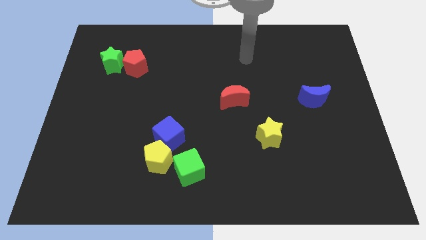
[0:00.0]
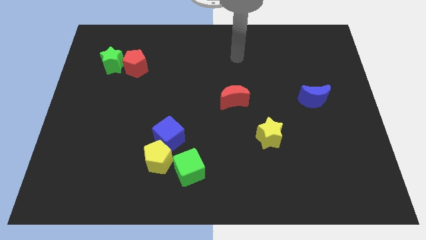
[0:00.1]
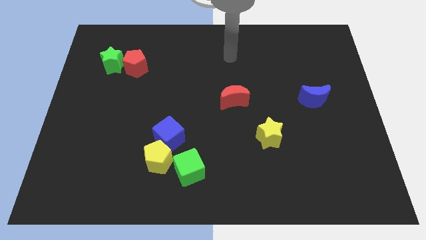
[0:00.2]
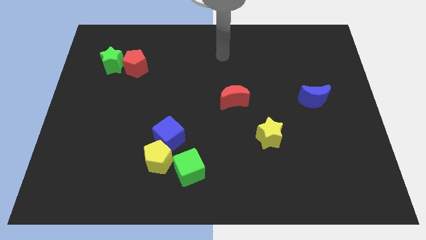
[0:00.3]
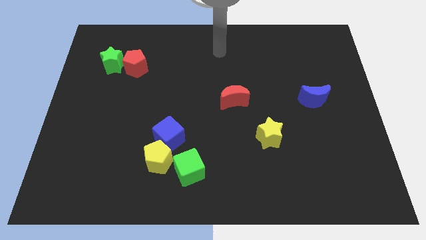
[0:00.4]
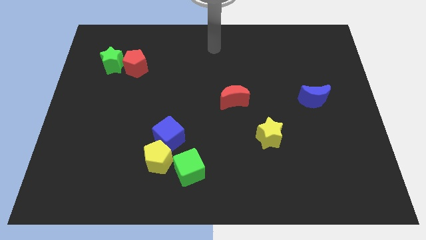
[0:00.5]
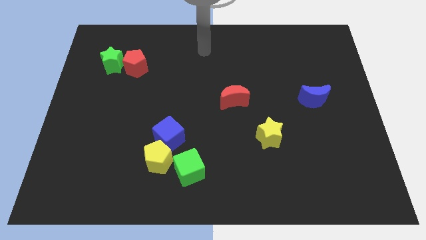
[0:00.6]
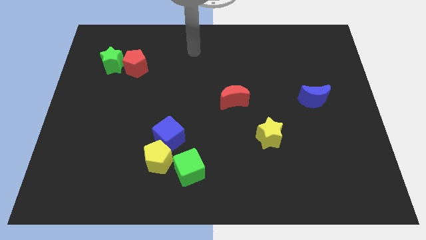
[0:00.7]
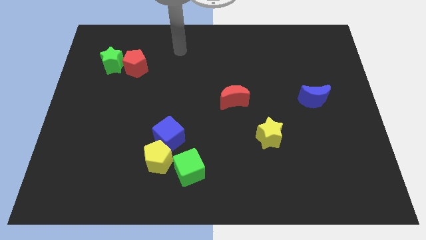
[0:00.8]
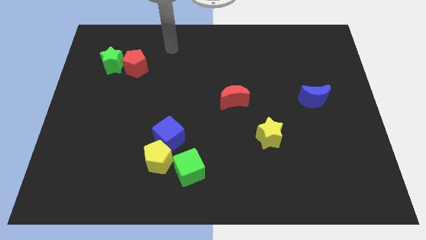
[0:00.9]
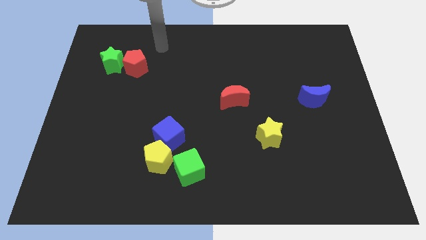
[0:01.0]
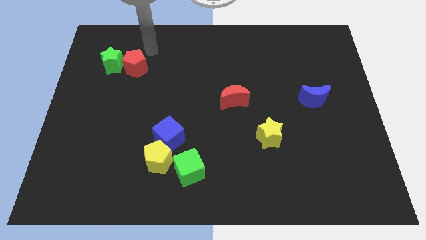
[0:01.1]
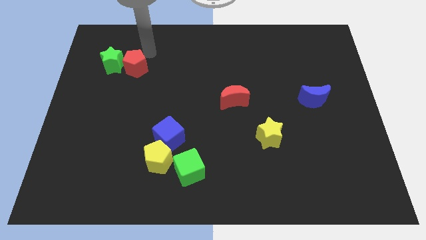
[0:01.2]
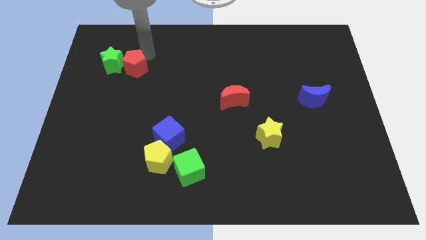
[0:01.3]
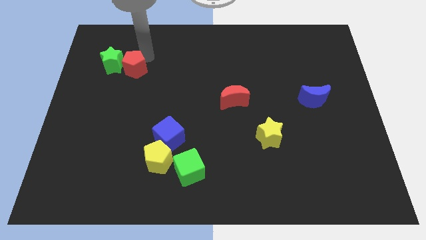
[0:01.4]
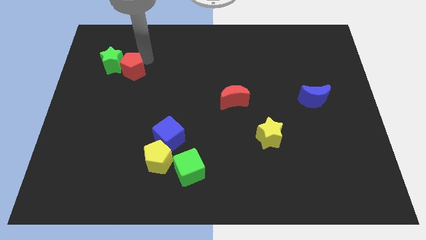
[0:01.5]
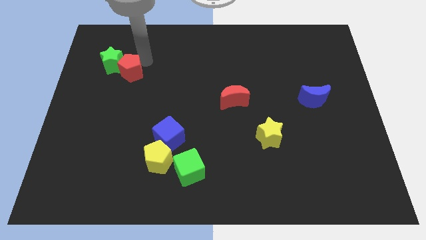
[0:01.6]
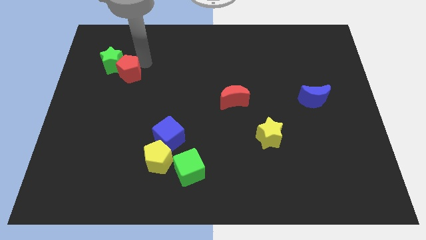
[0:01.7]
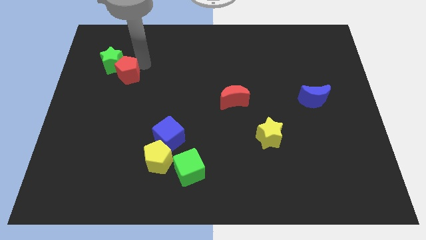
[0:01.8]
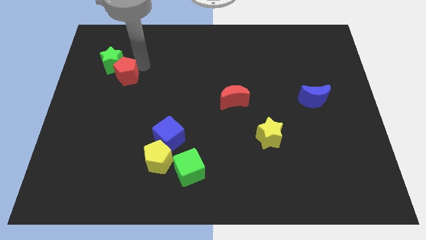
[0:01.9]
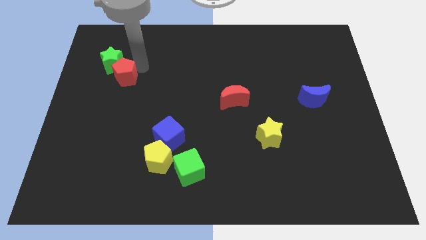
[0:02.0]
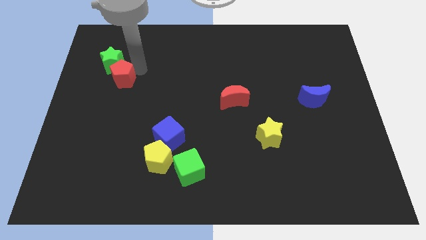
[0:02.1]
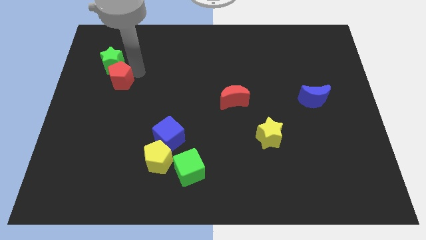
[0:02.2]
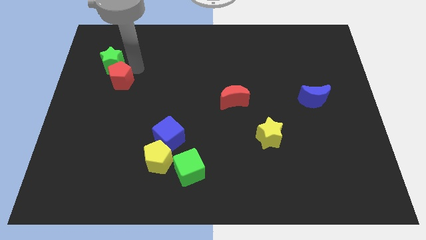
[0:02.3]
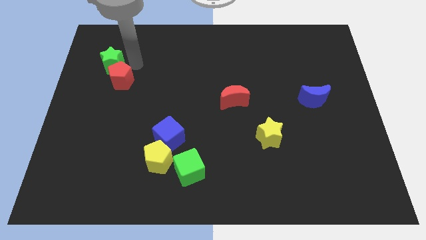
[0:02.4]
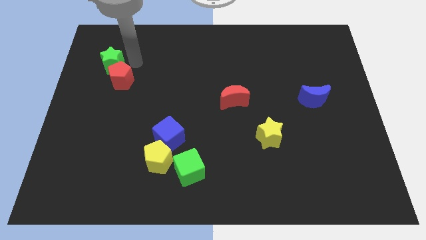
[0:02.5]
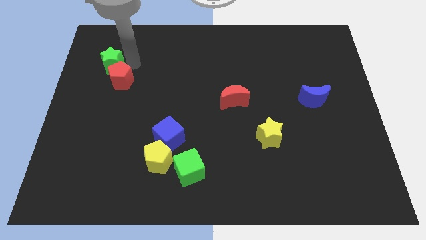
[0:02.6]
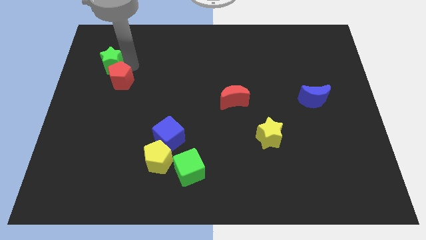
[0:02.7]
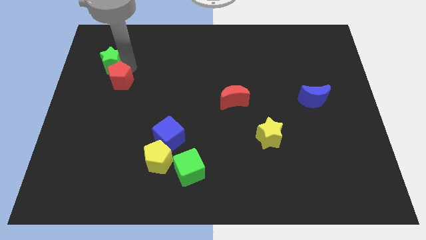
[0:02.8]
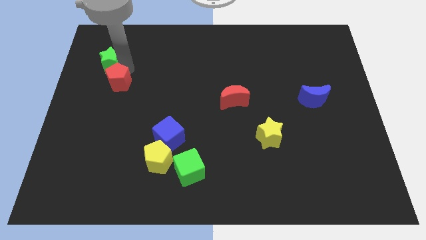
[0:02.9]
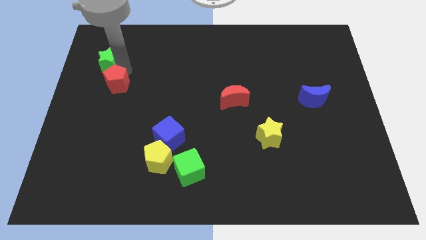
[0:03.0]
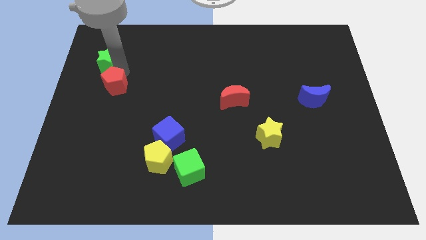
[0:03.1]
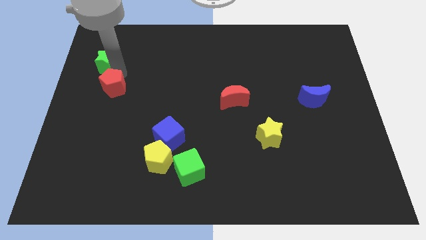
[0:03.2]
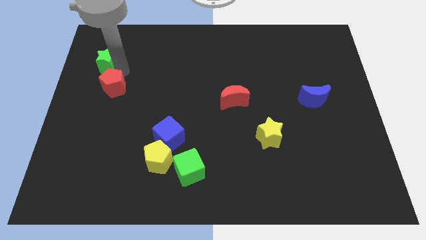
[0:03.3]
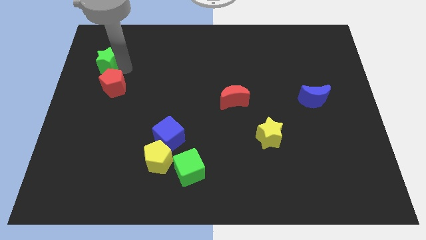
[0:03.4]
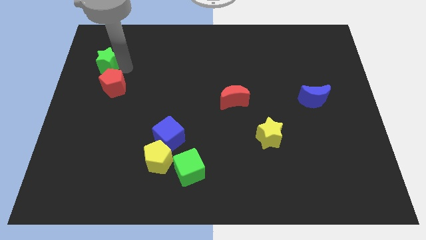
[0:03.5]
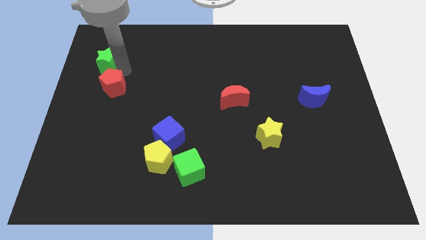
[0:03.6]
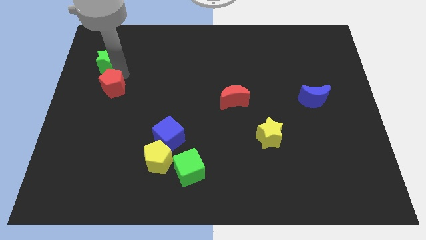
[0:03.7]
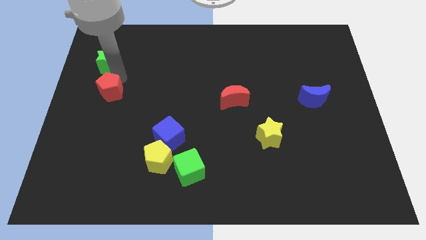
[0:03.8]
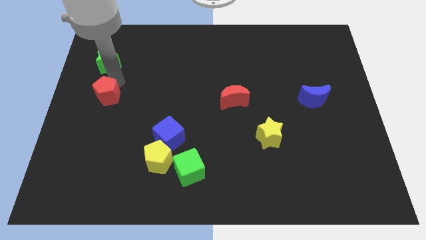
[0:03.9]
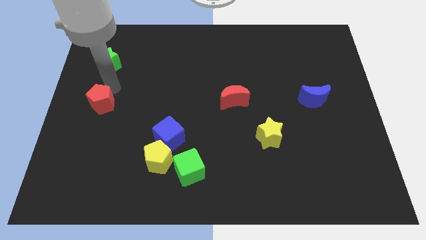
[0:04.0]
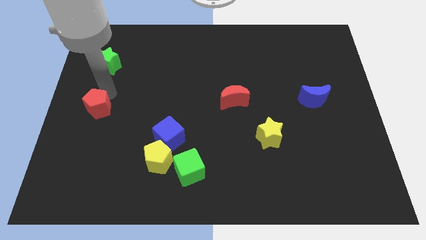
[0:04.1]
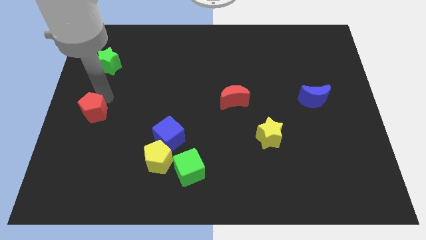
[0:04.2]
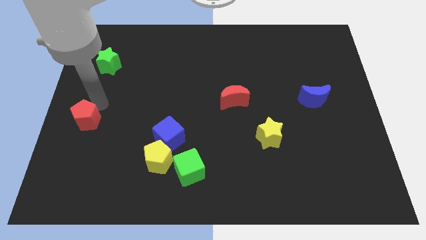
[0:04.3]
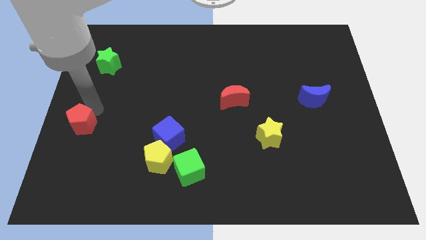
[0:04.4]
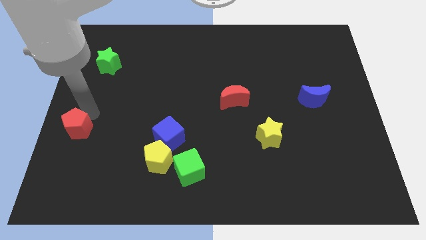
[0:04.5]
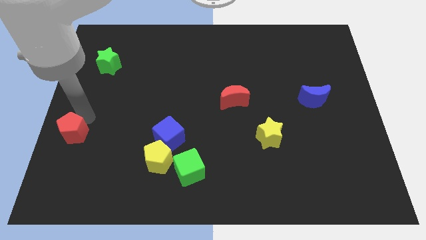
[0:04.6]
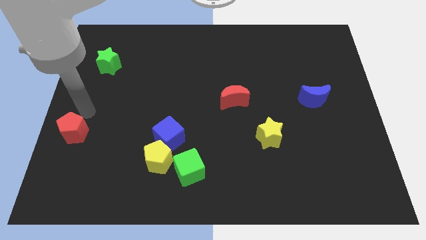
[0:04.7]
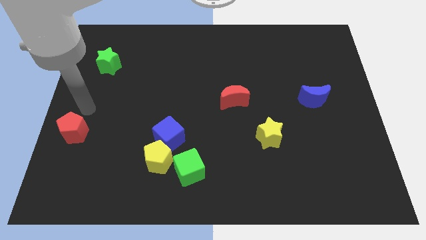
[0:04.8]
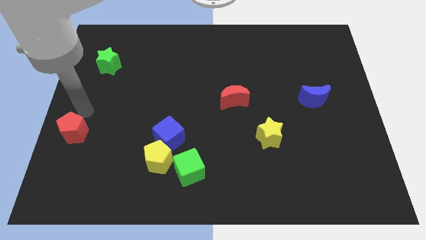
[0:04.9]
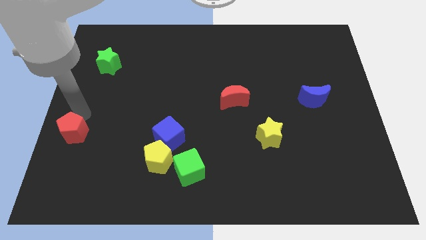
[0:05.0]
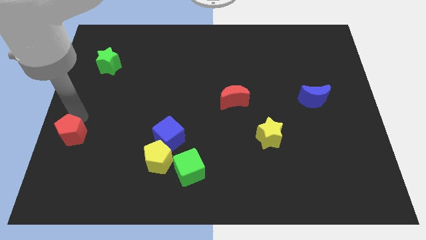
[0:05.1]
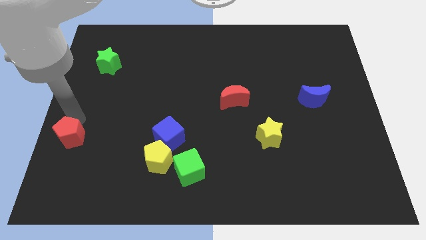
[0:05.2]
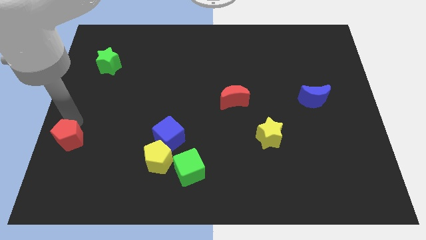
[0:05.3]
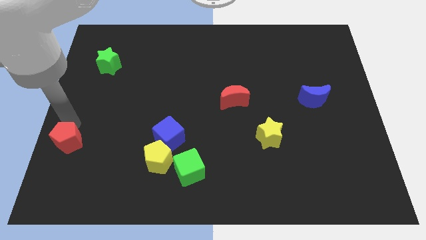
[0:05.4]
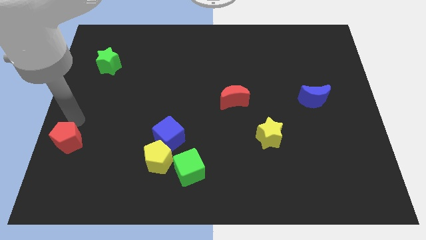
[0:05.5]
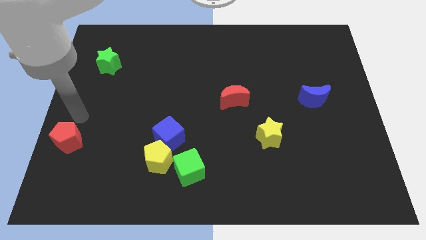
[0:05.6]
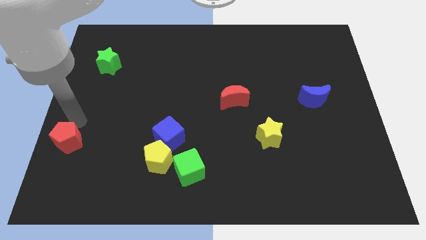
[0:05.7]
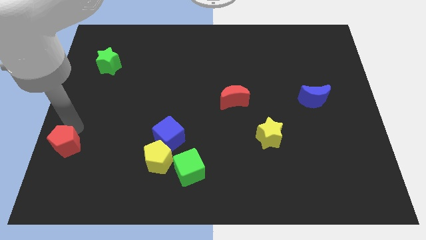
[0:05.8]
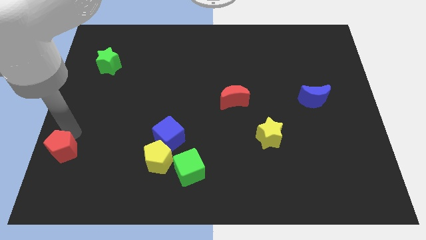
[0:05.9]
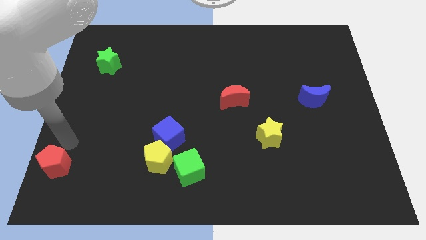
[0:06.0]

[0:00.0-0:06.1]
push the red pentagon to the bottom left corner

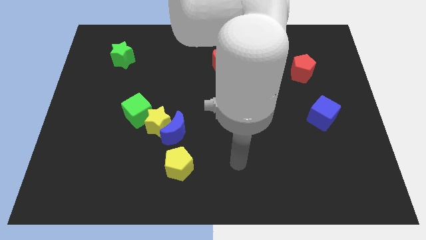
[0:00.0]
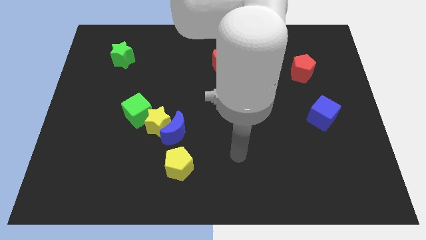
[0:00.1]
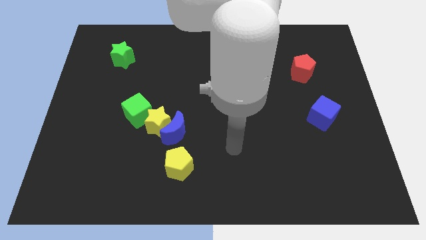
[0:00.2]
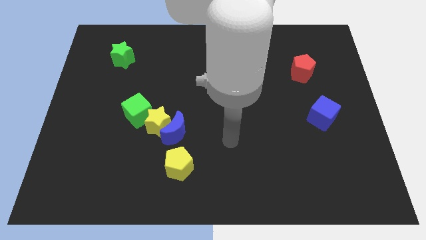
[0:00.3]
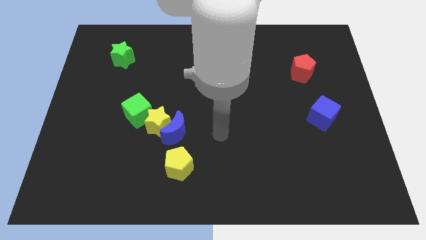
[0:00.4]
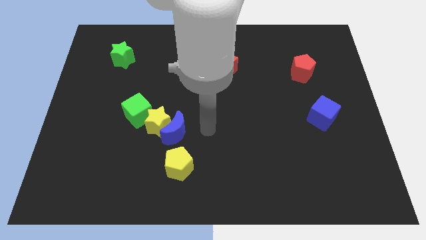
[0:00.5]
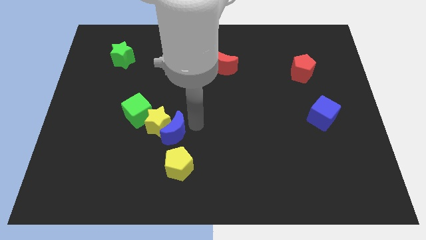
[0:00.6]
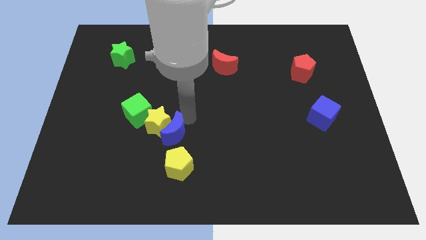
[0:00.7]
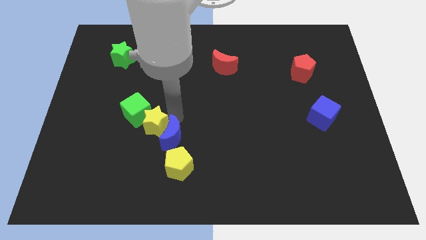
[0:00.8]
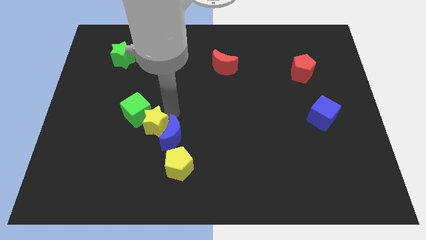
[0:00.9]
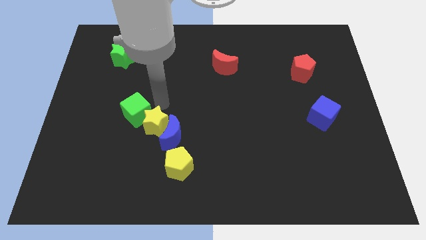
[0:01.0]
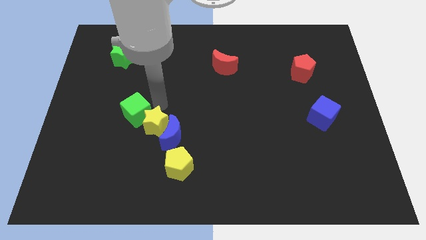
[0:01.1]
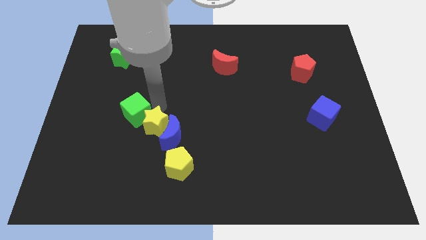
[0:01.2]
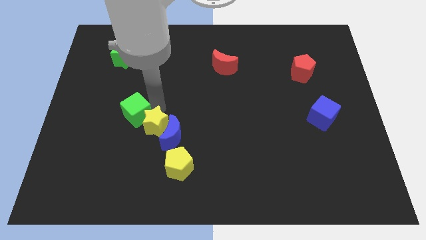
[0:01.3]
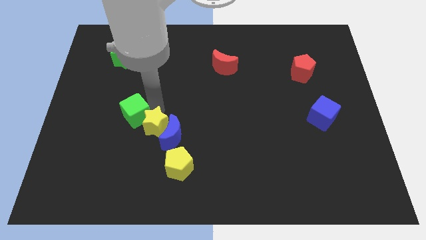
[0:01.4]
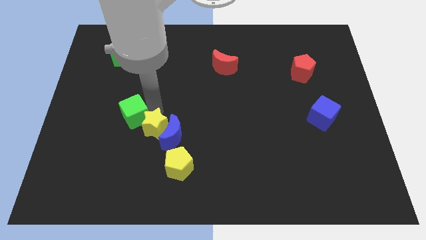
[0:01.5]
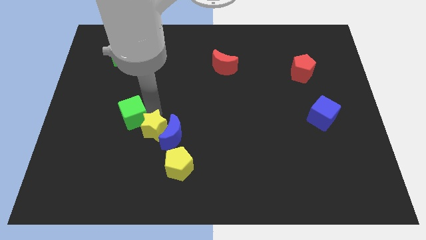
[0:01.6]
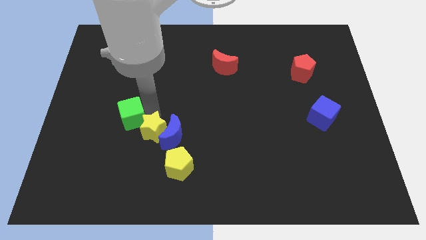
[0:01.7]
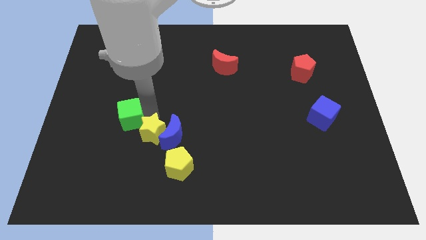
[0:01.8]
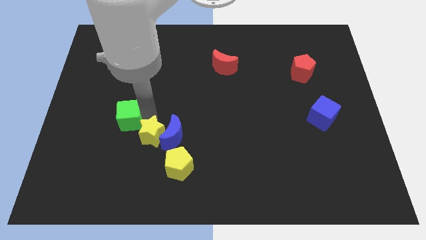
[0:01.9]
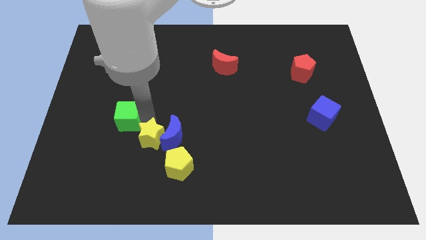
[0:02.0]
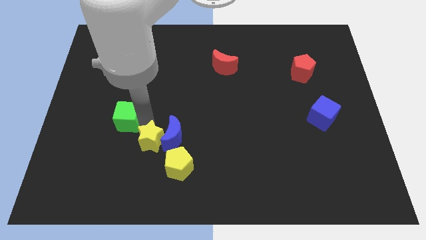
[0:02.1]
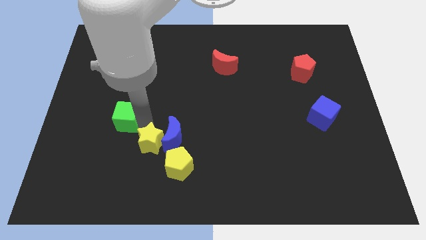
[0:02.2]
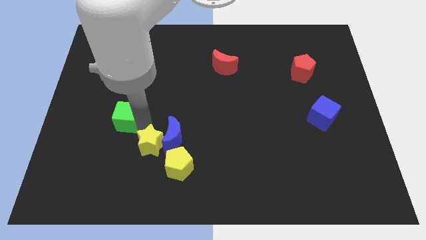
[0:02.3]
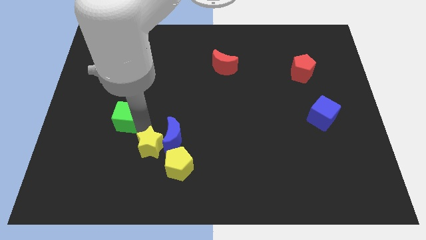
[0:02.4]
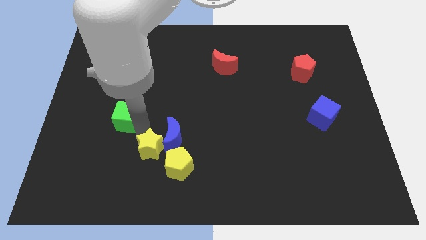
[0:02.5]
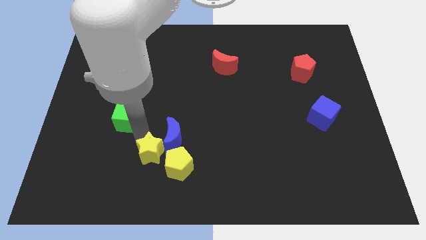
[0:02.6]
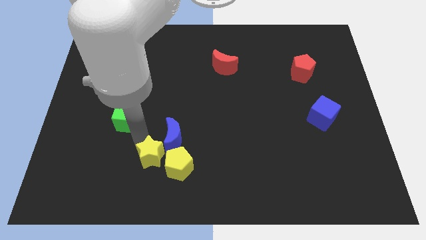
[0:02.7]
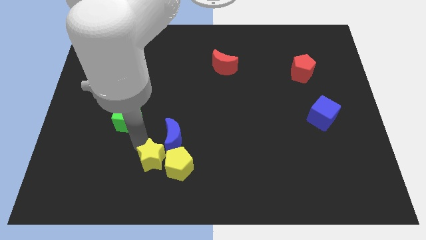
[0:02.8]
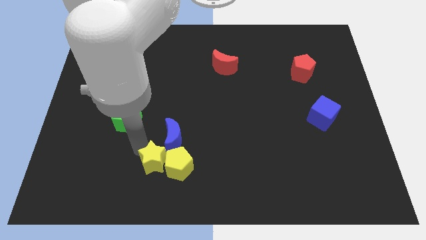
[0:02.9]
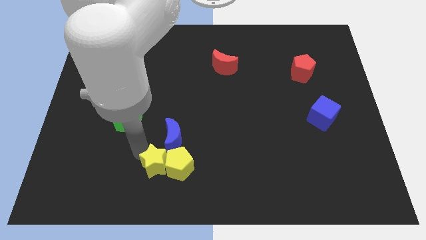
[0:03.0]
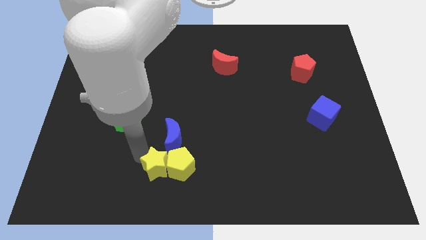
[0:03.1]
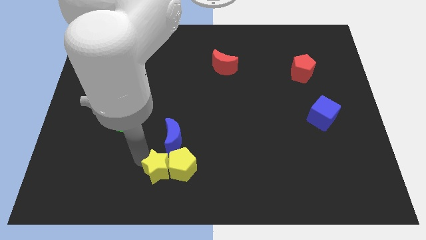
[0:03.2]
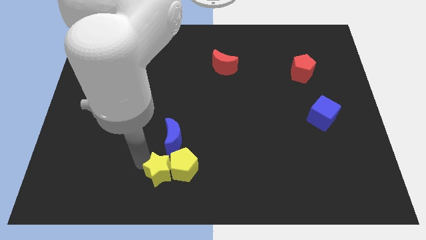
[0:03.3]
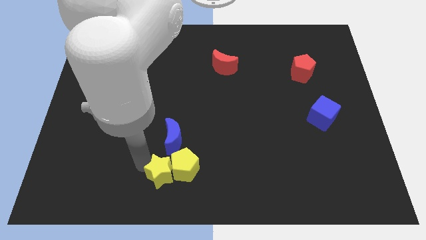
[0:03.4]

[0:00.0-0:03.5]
put the yellow star to the bottom
